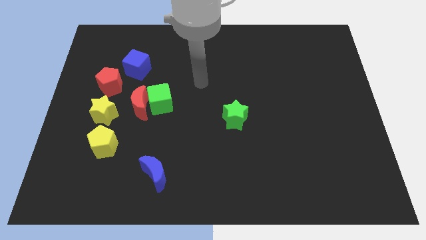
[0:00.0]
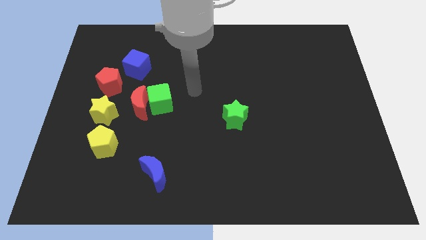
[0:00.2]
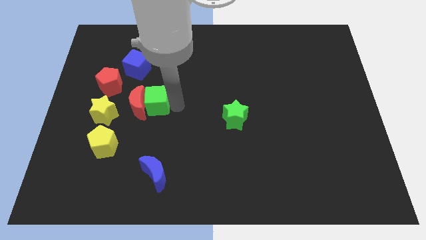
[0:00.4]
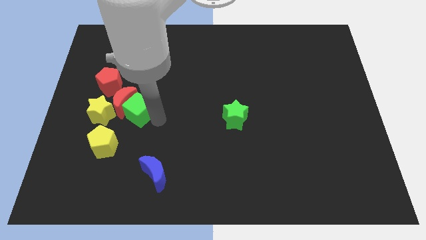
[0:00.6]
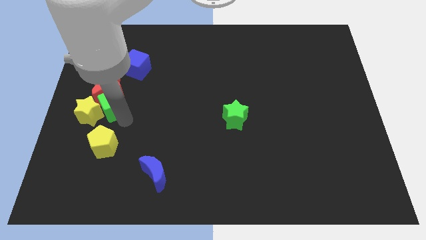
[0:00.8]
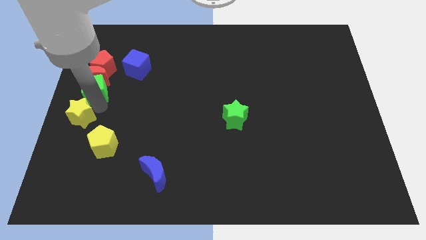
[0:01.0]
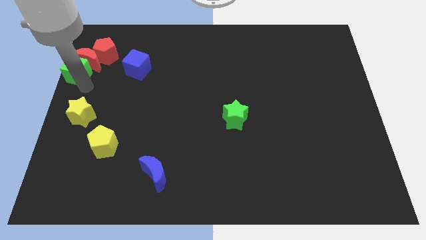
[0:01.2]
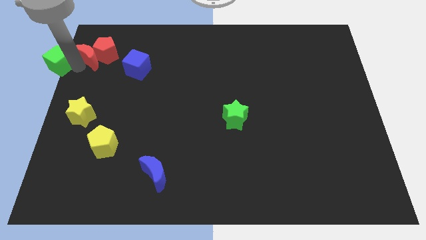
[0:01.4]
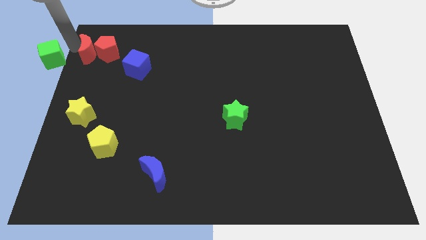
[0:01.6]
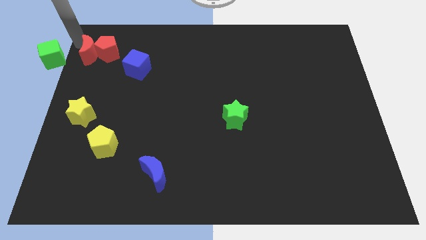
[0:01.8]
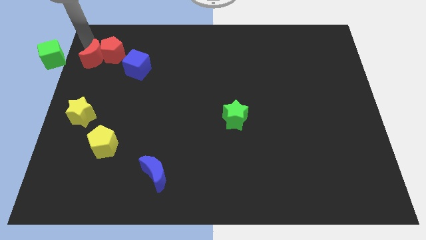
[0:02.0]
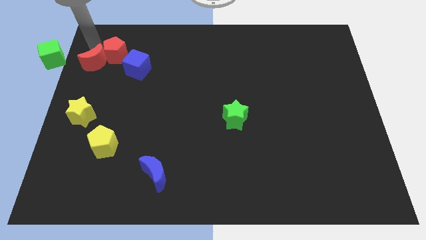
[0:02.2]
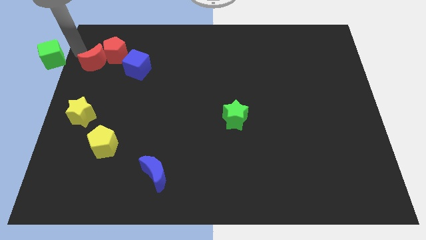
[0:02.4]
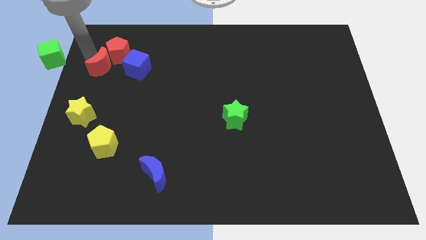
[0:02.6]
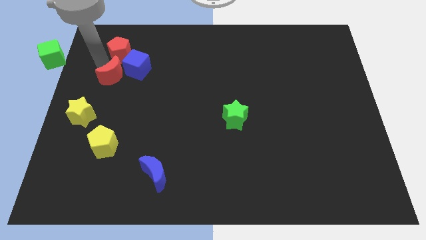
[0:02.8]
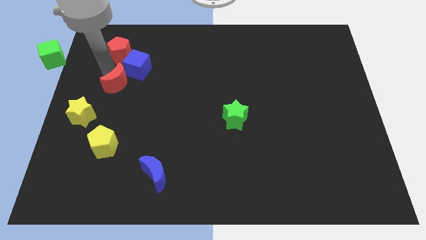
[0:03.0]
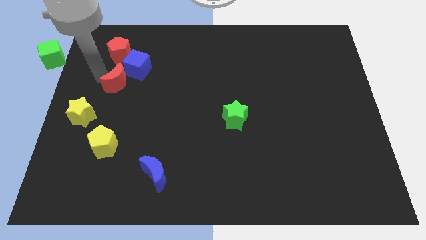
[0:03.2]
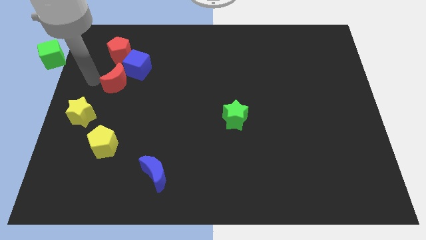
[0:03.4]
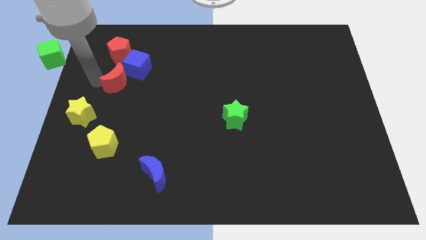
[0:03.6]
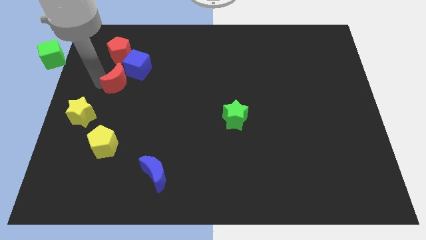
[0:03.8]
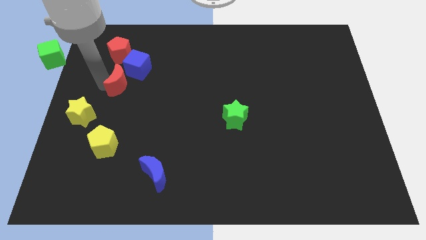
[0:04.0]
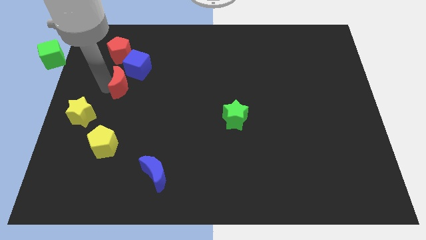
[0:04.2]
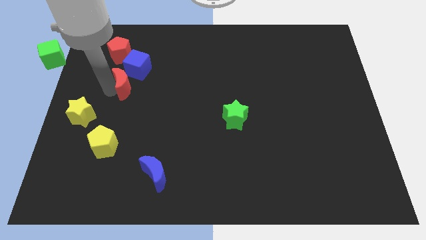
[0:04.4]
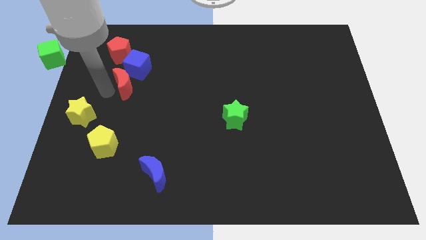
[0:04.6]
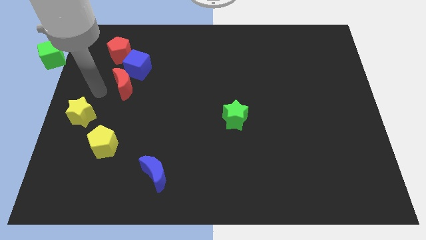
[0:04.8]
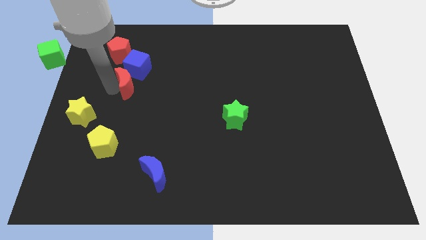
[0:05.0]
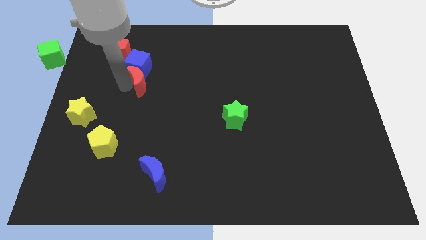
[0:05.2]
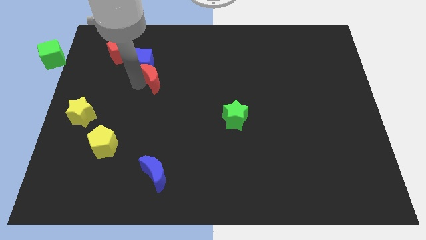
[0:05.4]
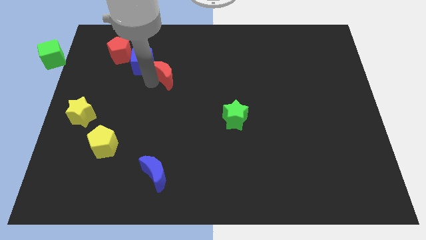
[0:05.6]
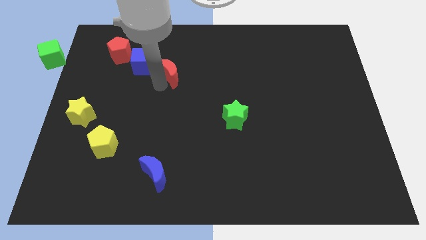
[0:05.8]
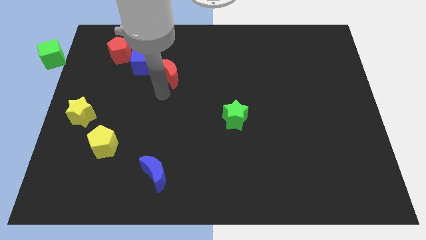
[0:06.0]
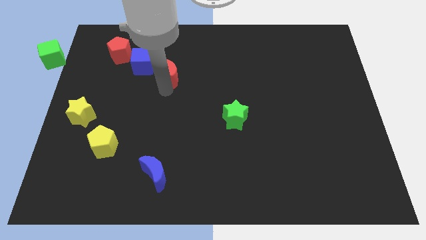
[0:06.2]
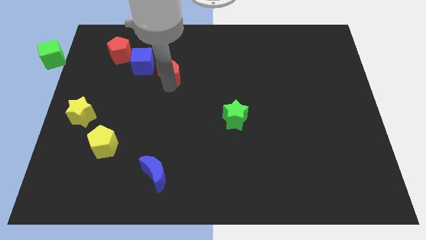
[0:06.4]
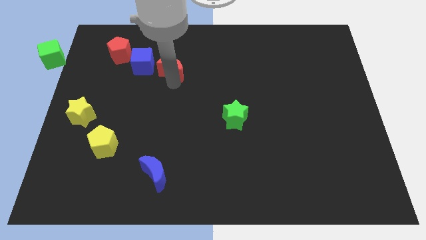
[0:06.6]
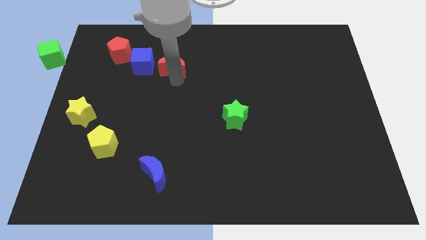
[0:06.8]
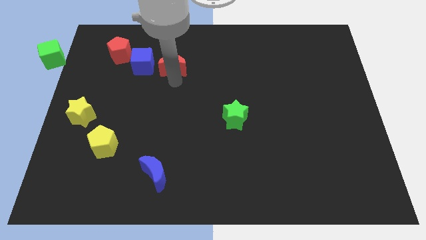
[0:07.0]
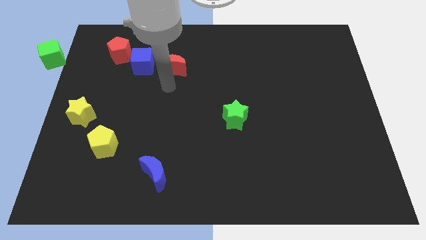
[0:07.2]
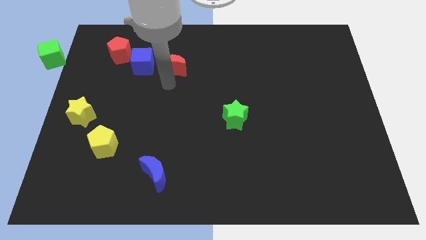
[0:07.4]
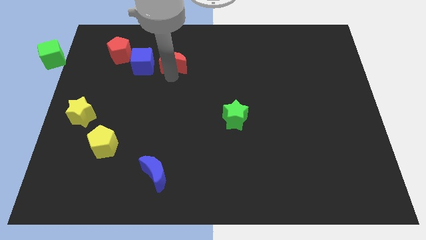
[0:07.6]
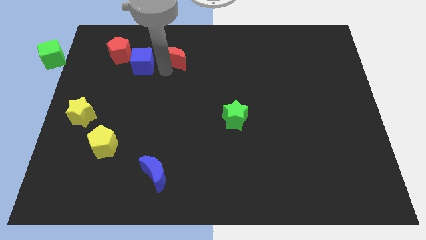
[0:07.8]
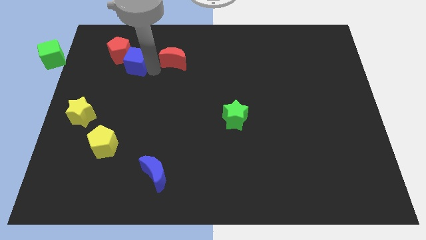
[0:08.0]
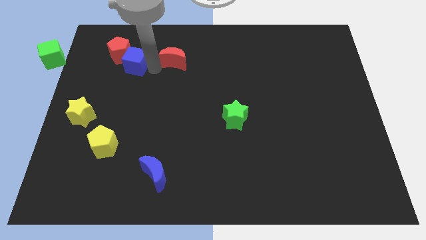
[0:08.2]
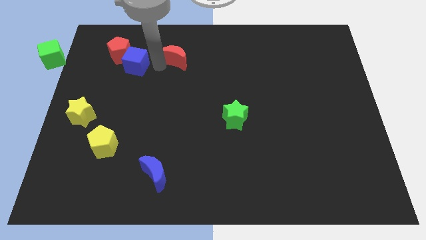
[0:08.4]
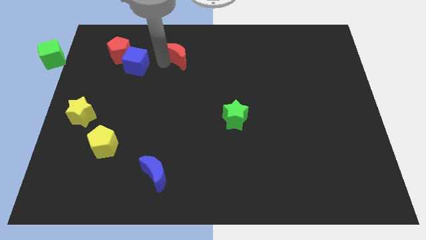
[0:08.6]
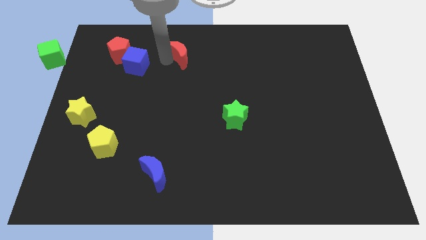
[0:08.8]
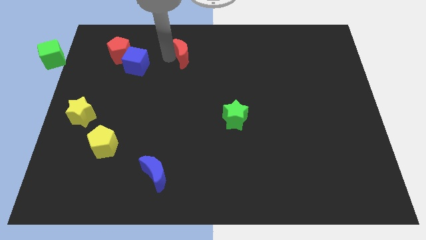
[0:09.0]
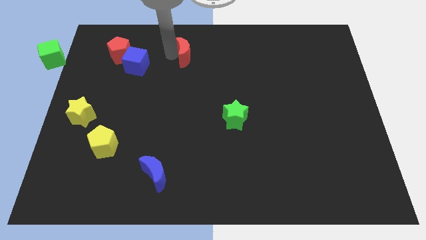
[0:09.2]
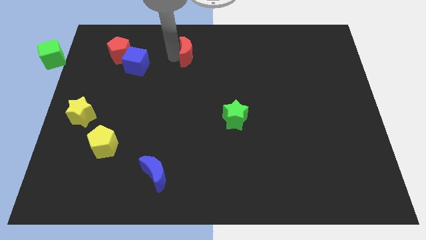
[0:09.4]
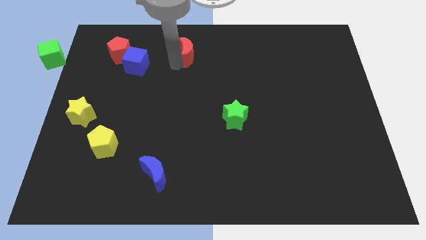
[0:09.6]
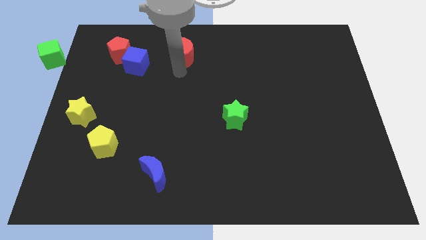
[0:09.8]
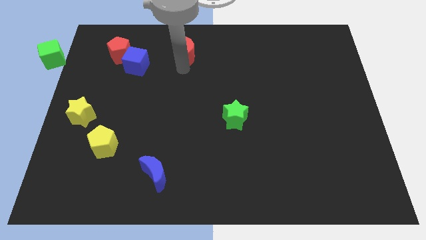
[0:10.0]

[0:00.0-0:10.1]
move the red moon to the top side
